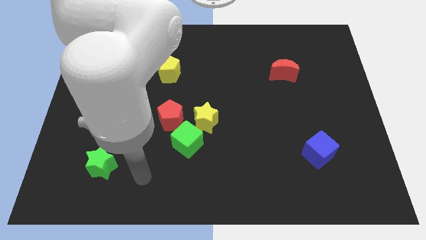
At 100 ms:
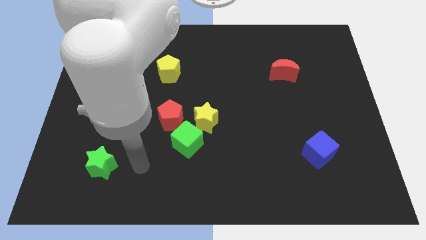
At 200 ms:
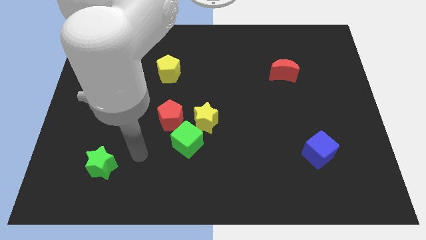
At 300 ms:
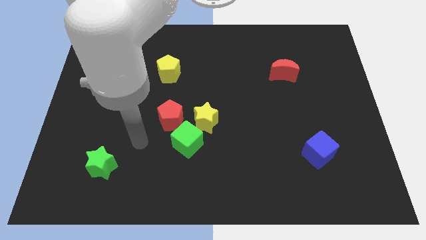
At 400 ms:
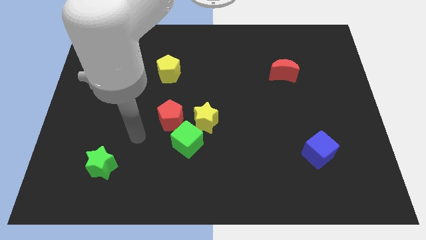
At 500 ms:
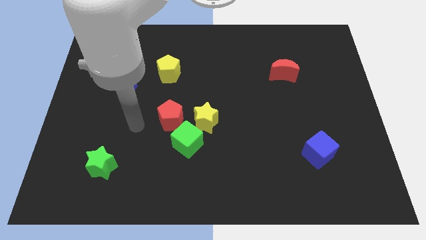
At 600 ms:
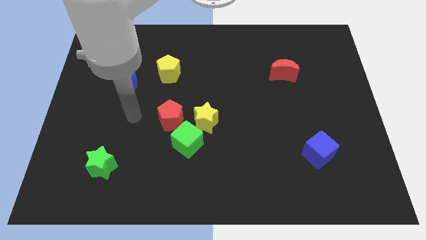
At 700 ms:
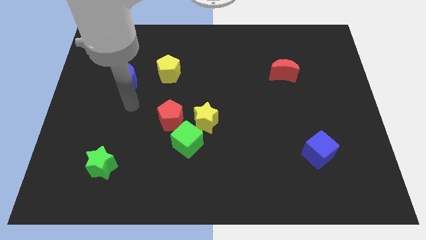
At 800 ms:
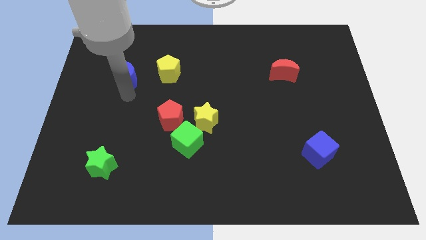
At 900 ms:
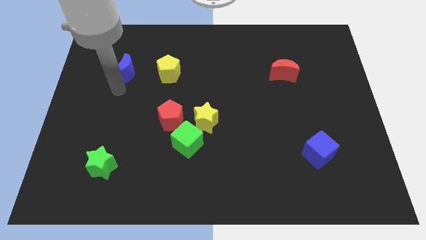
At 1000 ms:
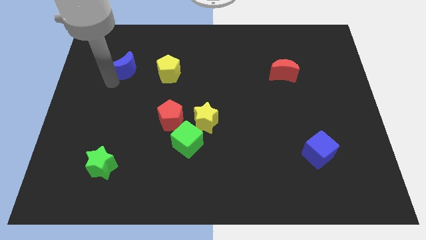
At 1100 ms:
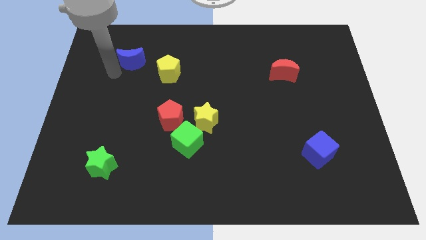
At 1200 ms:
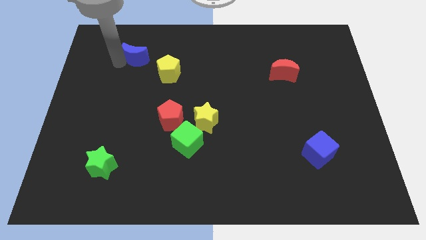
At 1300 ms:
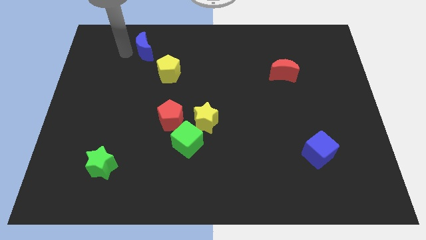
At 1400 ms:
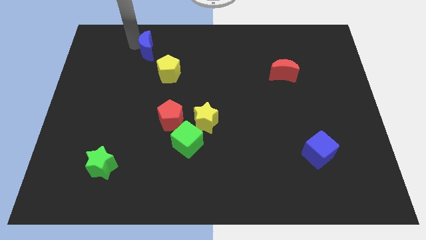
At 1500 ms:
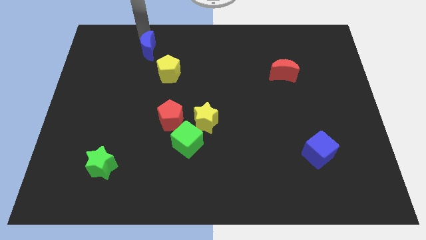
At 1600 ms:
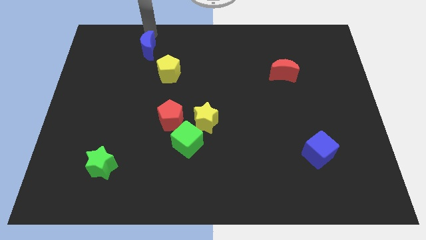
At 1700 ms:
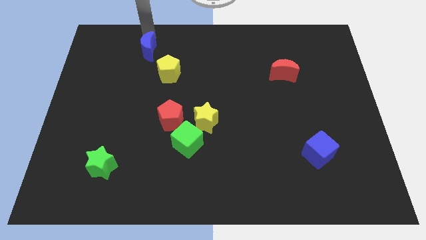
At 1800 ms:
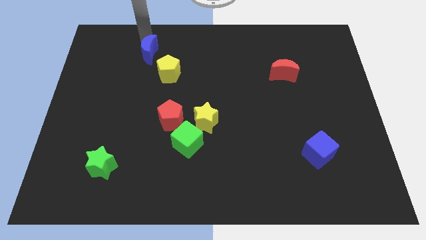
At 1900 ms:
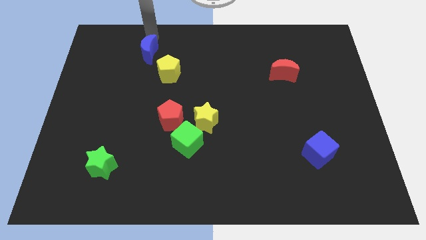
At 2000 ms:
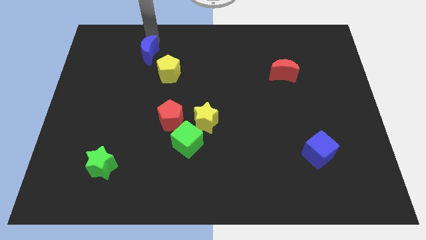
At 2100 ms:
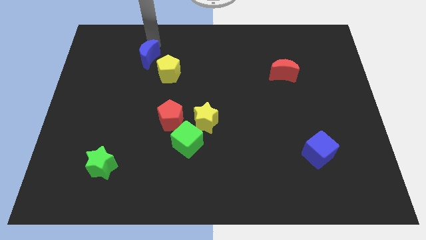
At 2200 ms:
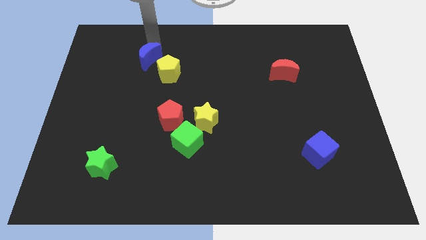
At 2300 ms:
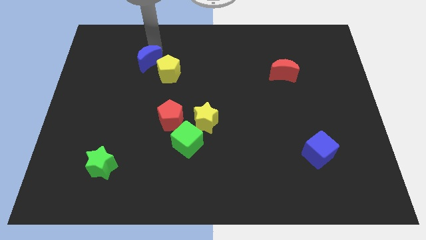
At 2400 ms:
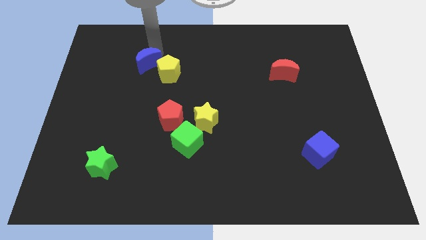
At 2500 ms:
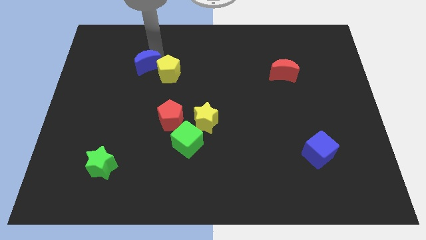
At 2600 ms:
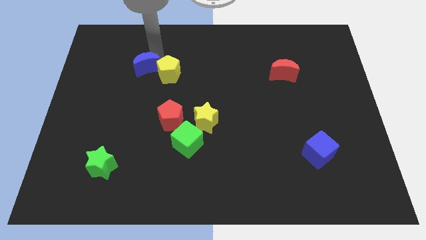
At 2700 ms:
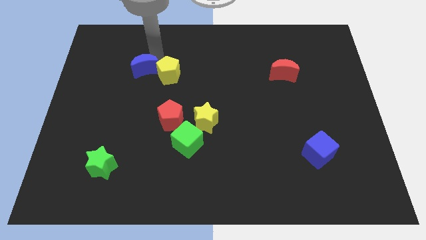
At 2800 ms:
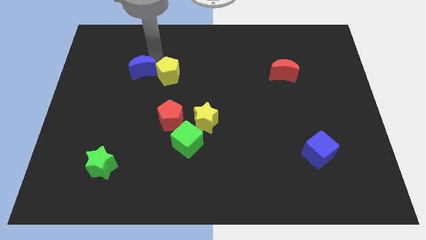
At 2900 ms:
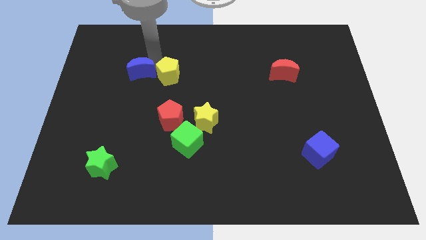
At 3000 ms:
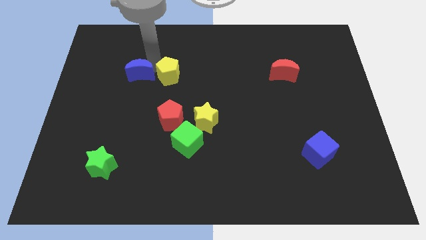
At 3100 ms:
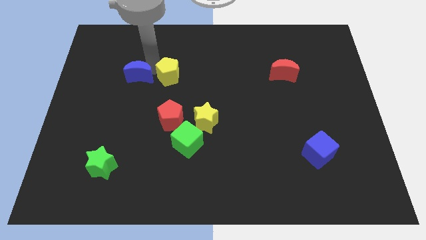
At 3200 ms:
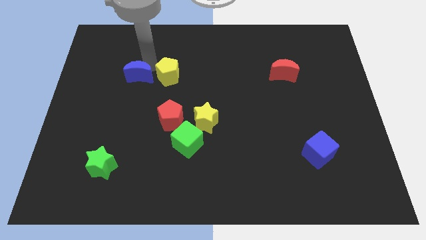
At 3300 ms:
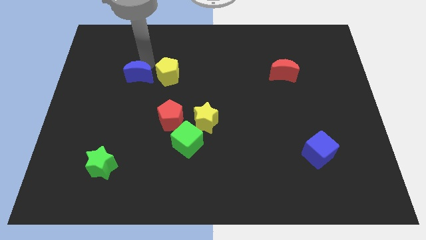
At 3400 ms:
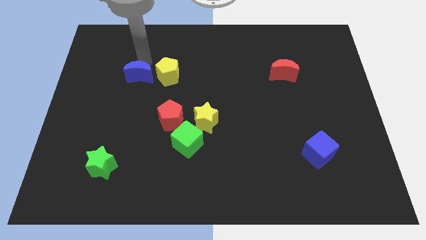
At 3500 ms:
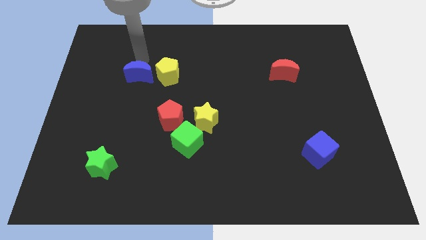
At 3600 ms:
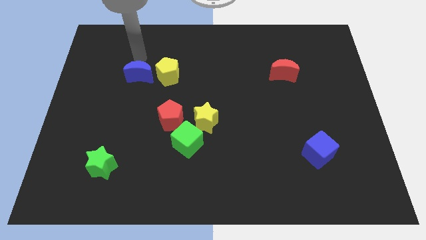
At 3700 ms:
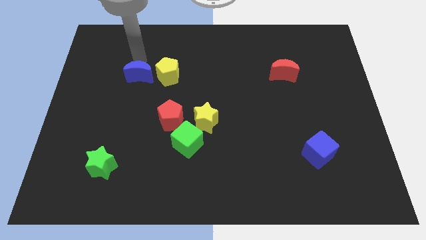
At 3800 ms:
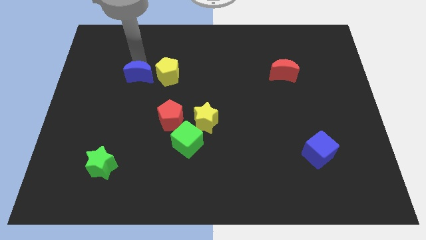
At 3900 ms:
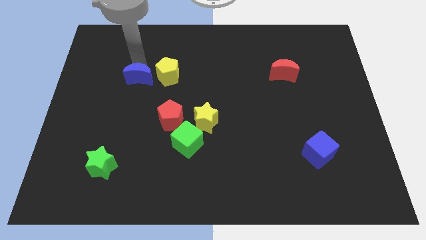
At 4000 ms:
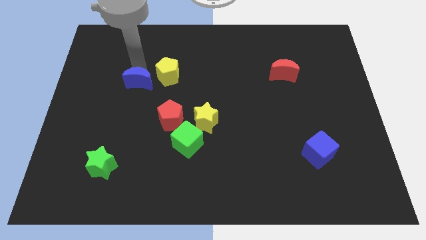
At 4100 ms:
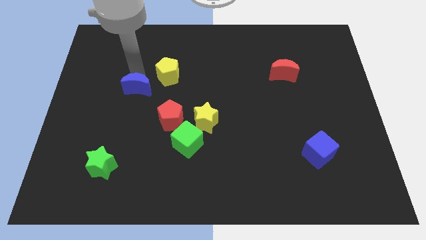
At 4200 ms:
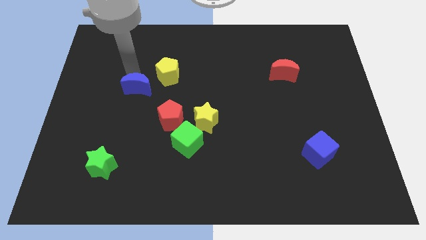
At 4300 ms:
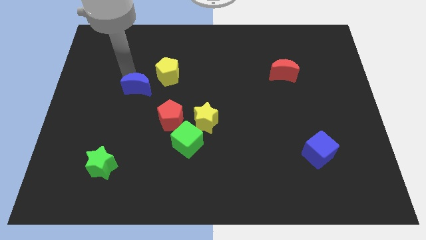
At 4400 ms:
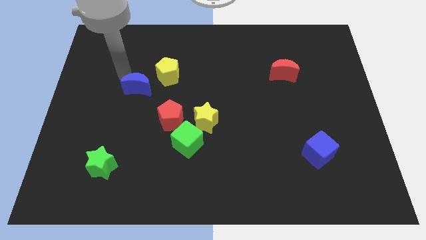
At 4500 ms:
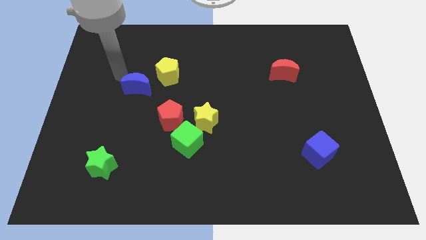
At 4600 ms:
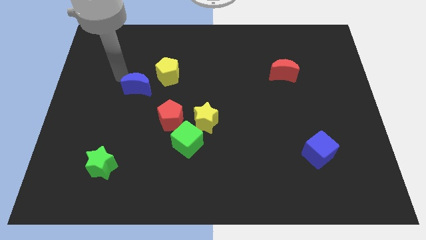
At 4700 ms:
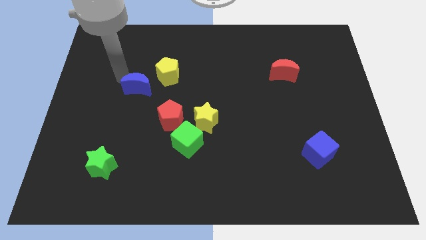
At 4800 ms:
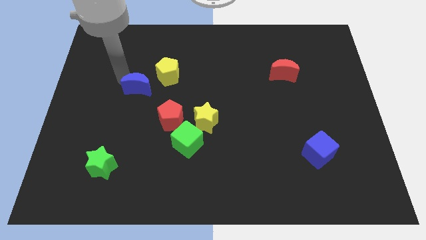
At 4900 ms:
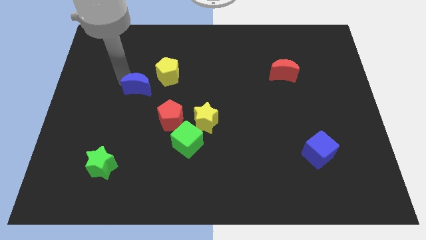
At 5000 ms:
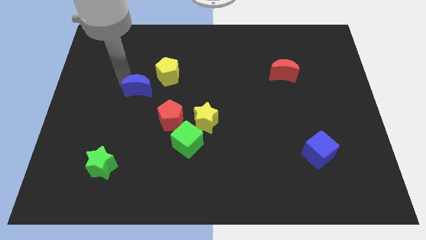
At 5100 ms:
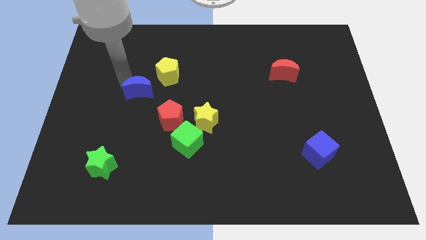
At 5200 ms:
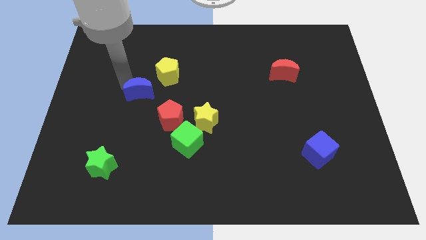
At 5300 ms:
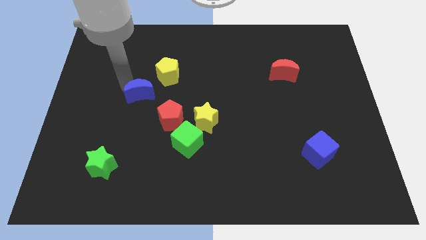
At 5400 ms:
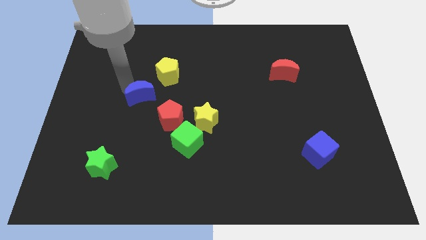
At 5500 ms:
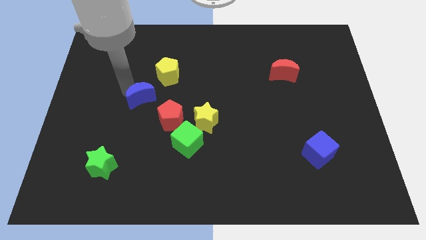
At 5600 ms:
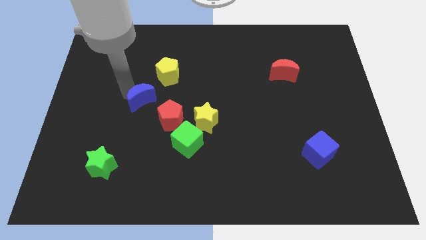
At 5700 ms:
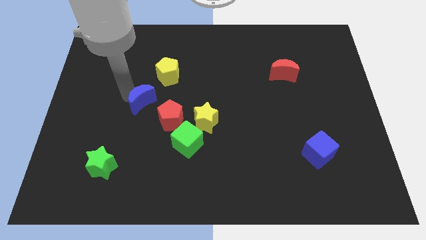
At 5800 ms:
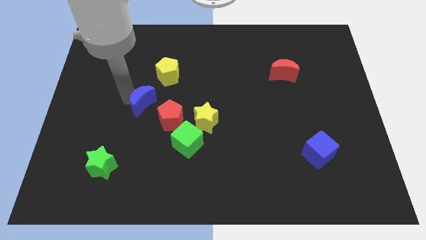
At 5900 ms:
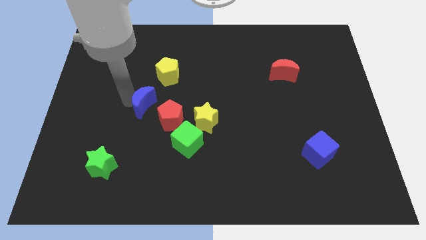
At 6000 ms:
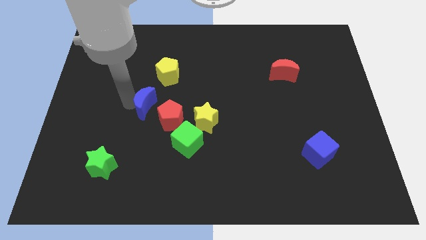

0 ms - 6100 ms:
slide the blue moon to the bottom of the yellow pentagon

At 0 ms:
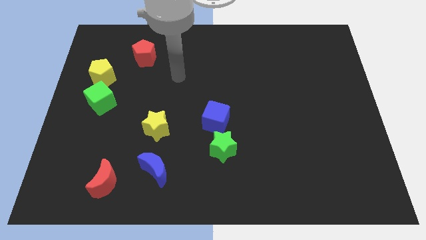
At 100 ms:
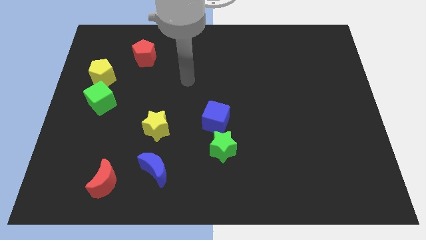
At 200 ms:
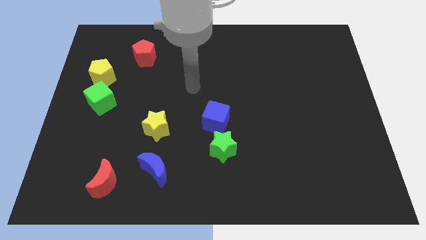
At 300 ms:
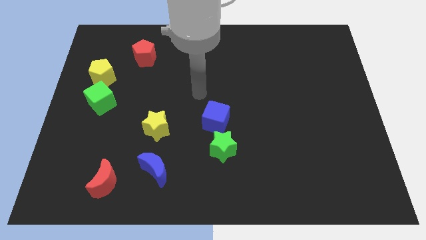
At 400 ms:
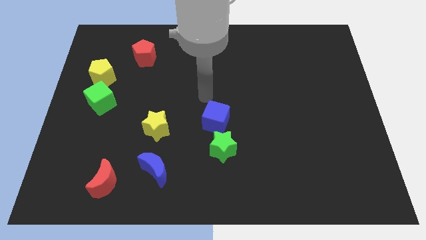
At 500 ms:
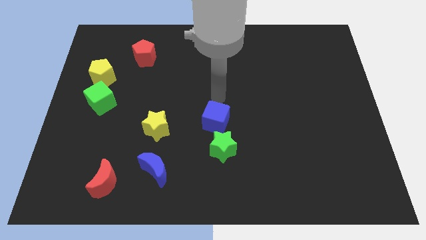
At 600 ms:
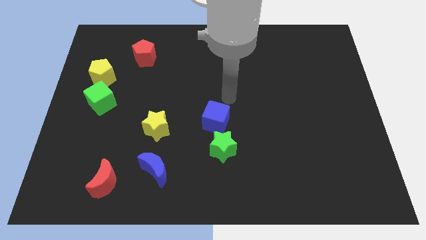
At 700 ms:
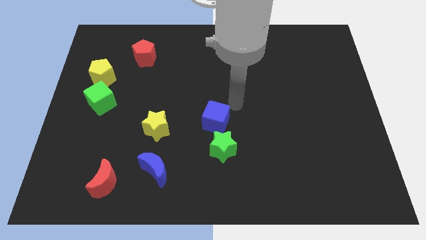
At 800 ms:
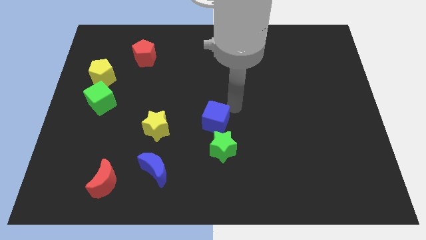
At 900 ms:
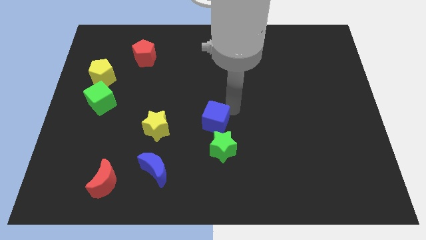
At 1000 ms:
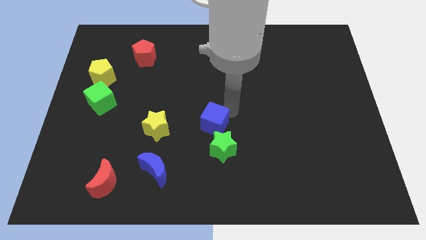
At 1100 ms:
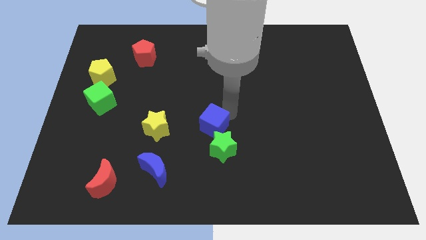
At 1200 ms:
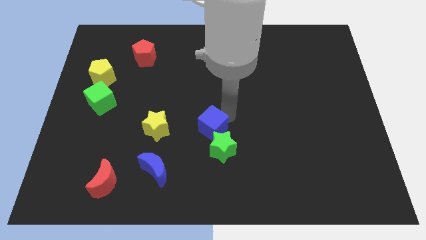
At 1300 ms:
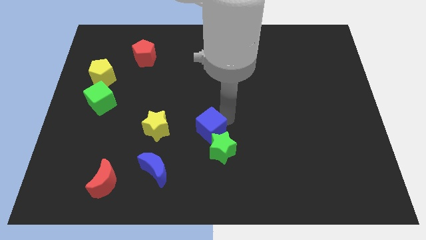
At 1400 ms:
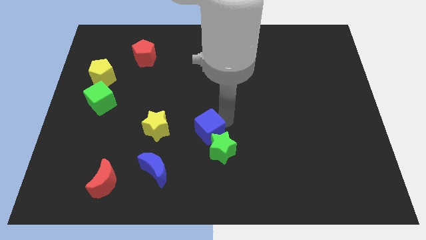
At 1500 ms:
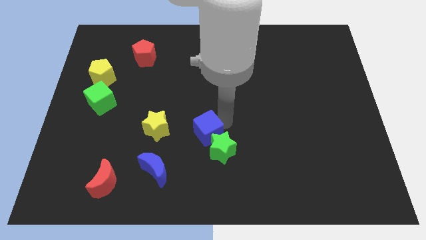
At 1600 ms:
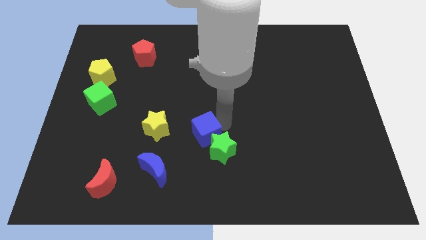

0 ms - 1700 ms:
put the blue cube left of the green star
